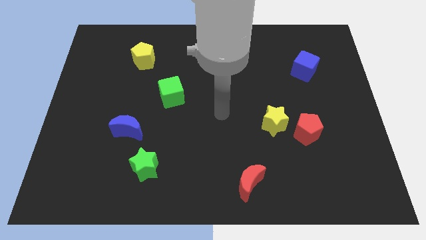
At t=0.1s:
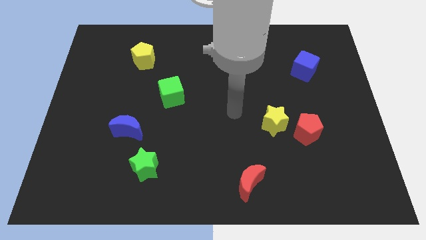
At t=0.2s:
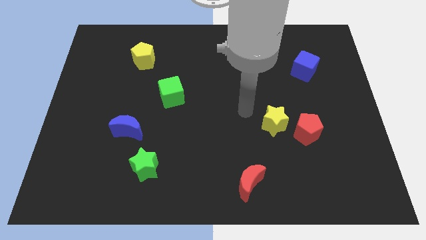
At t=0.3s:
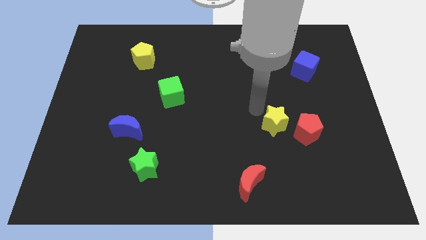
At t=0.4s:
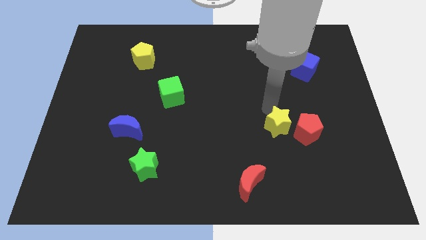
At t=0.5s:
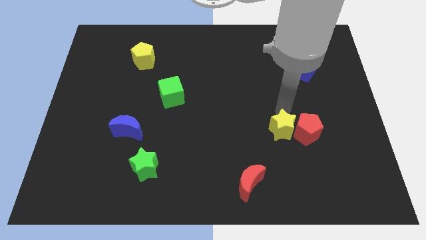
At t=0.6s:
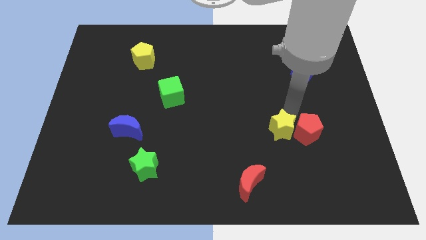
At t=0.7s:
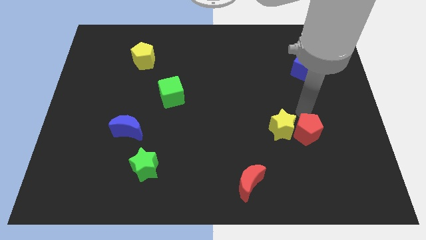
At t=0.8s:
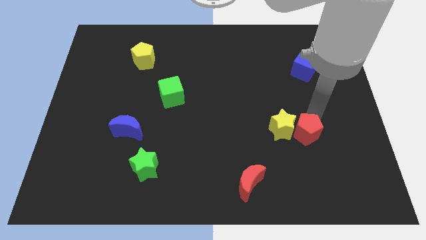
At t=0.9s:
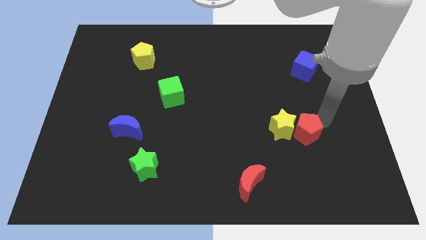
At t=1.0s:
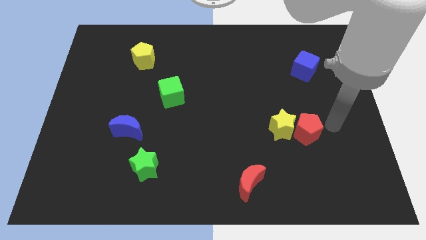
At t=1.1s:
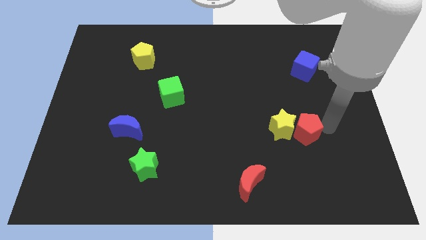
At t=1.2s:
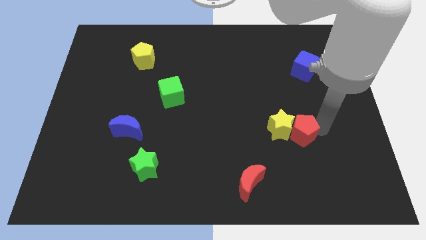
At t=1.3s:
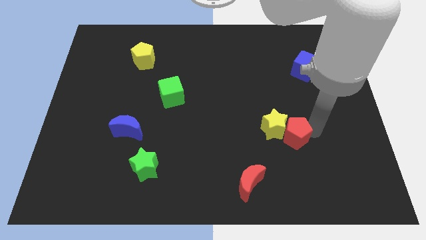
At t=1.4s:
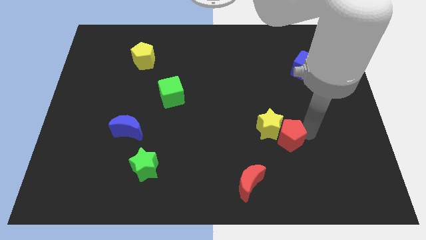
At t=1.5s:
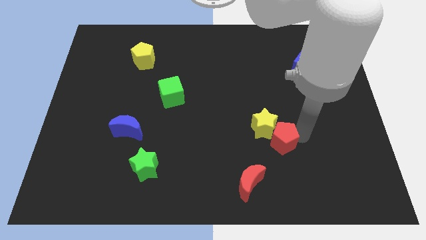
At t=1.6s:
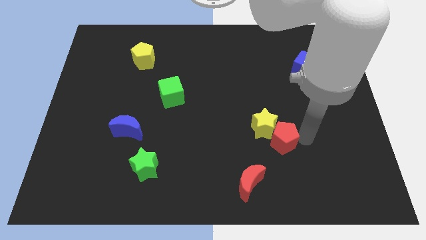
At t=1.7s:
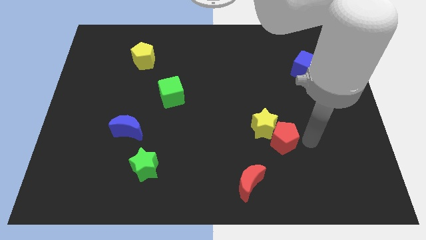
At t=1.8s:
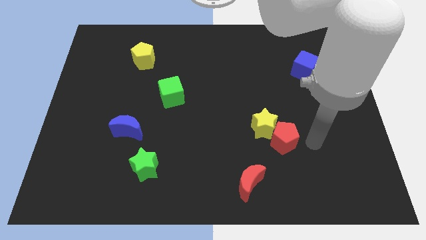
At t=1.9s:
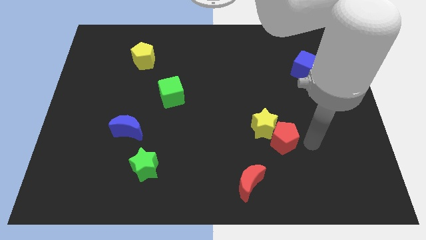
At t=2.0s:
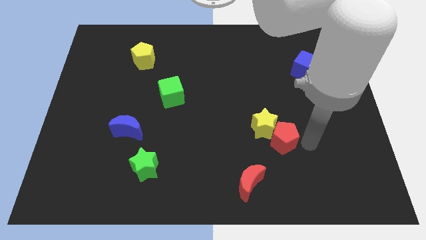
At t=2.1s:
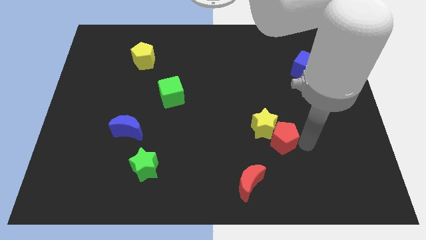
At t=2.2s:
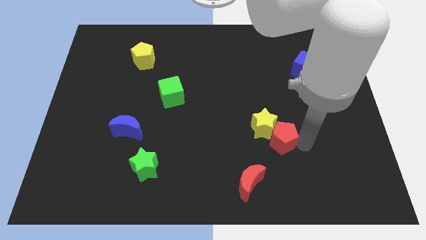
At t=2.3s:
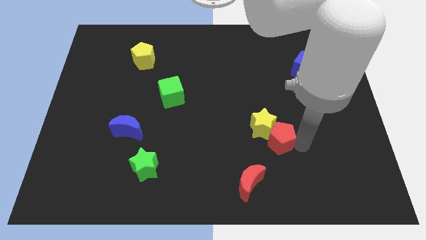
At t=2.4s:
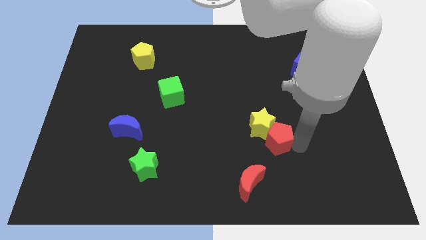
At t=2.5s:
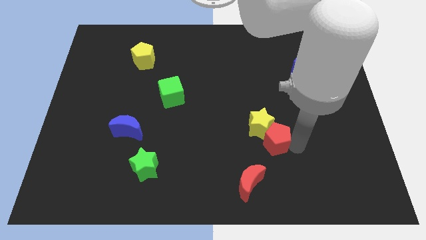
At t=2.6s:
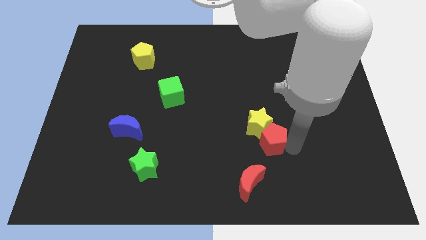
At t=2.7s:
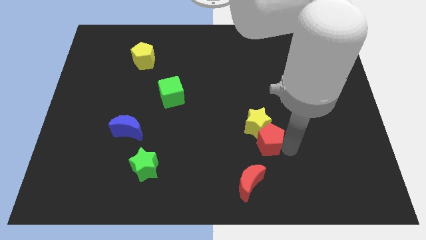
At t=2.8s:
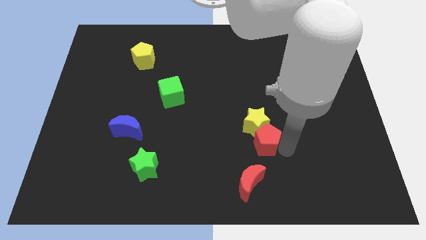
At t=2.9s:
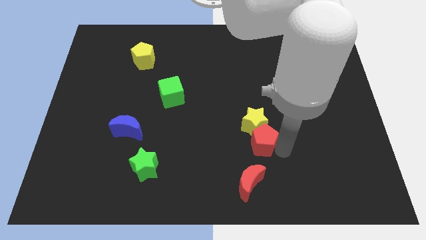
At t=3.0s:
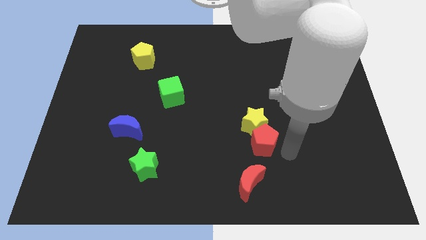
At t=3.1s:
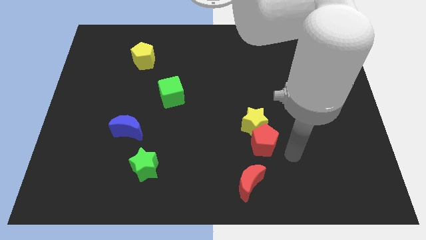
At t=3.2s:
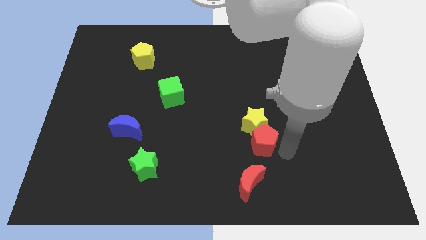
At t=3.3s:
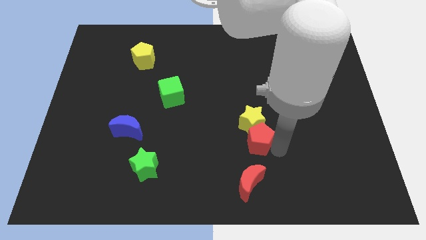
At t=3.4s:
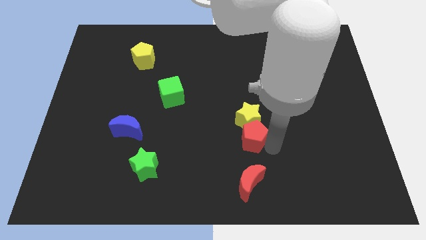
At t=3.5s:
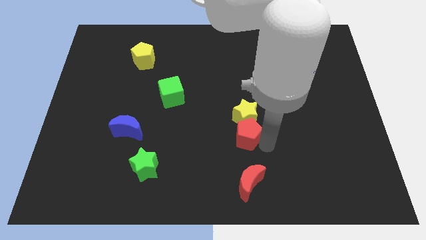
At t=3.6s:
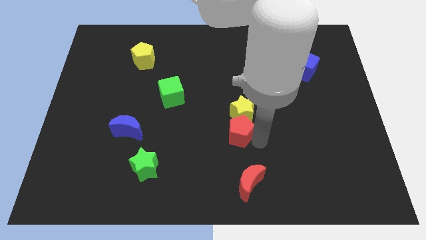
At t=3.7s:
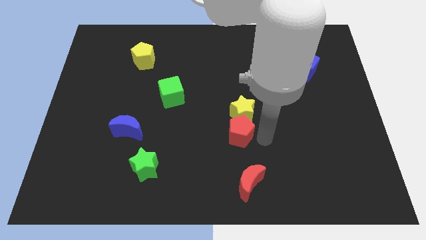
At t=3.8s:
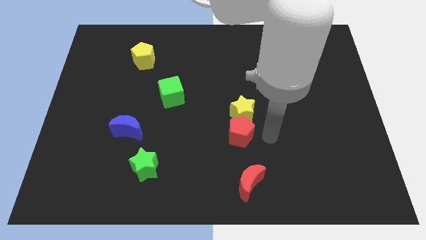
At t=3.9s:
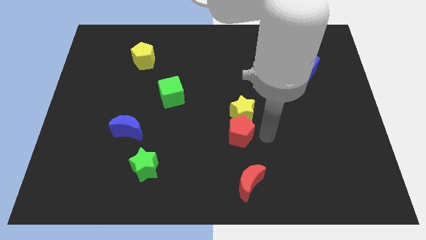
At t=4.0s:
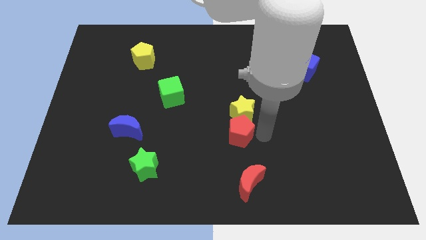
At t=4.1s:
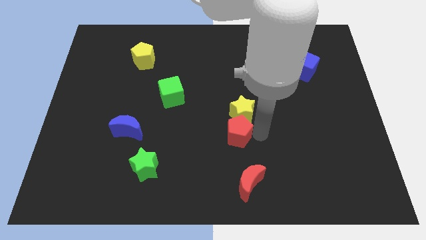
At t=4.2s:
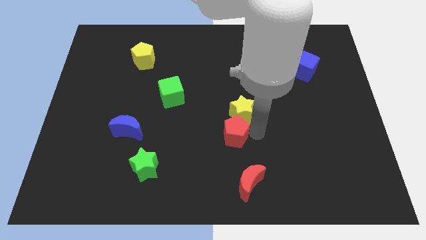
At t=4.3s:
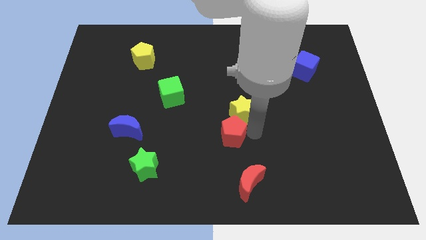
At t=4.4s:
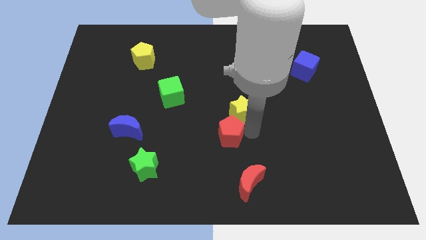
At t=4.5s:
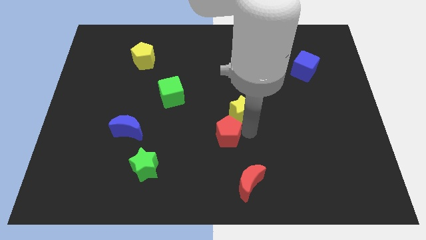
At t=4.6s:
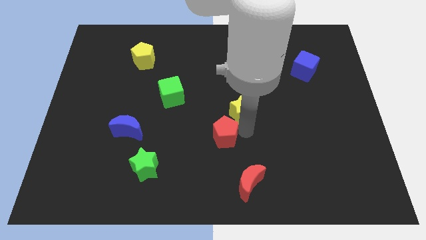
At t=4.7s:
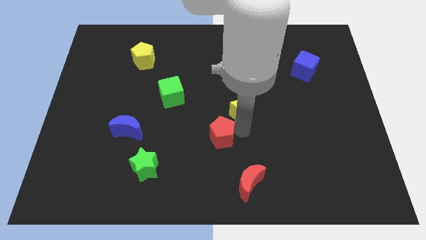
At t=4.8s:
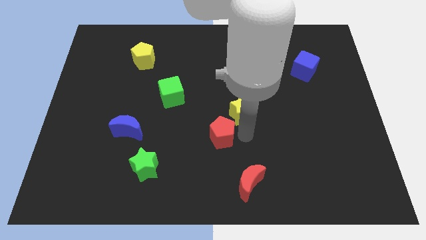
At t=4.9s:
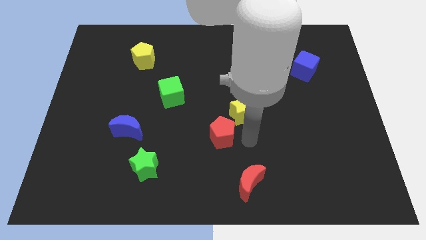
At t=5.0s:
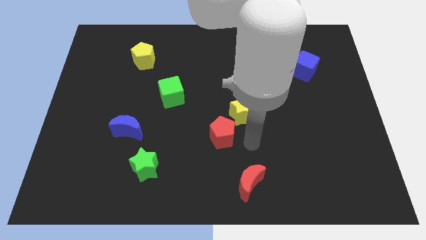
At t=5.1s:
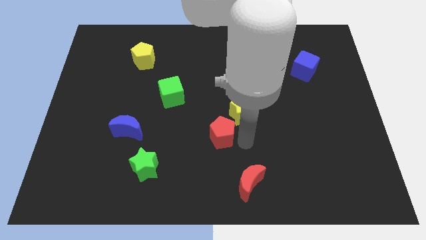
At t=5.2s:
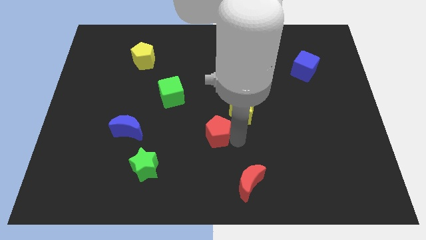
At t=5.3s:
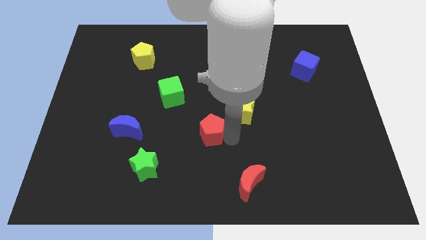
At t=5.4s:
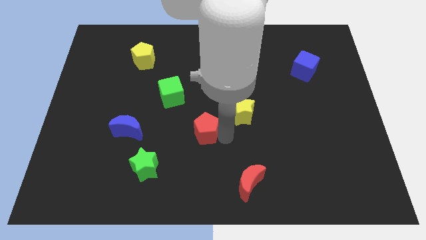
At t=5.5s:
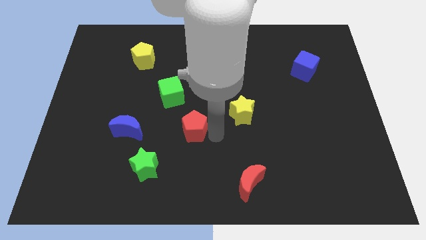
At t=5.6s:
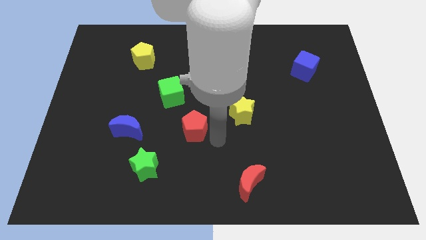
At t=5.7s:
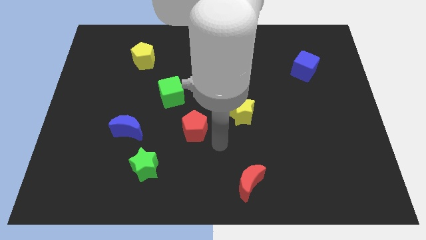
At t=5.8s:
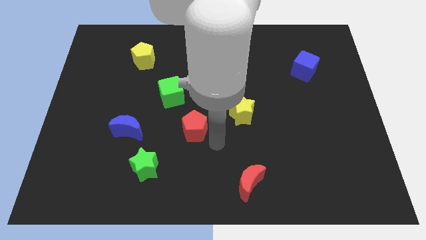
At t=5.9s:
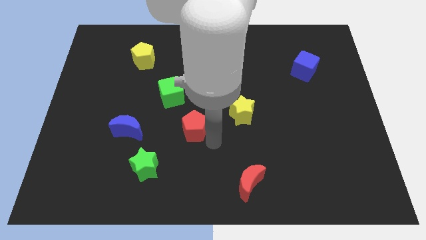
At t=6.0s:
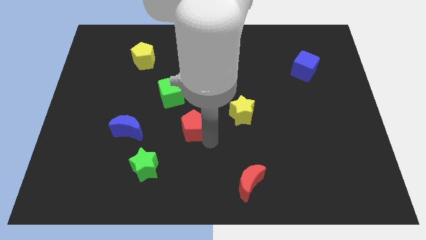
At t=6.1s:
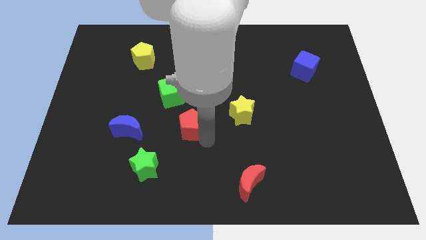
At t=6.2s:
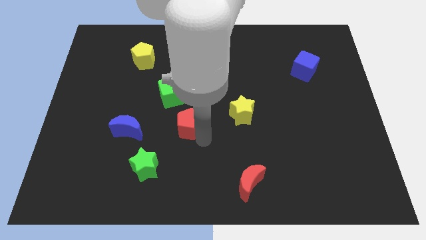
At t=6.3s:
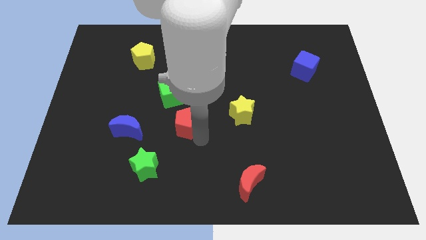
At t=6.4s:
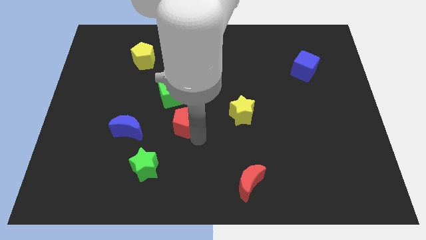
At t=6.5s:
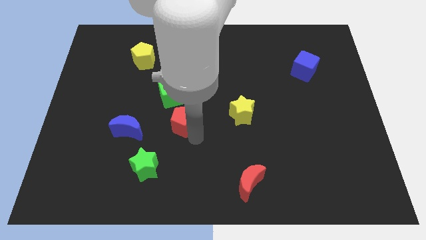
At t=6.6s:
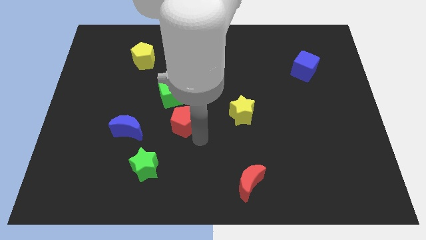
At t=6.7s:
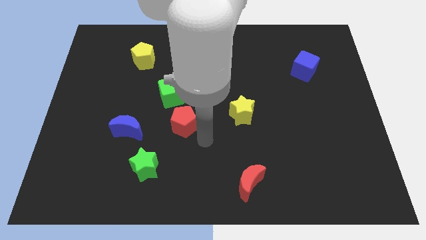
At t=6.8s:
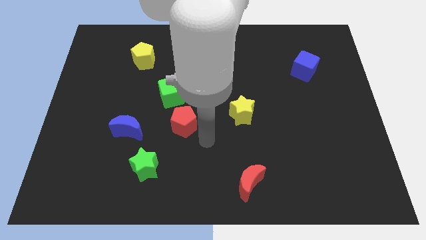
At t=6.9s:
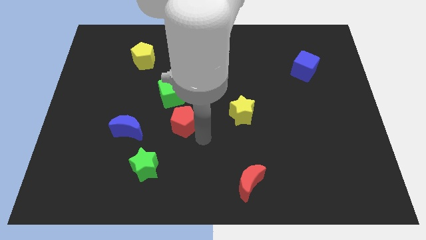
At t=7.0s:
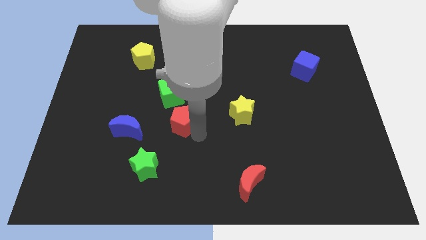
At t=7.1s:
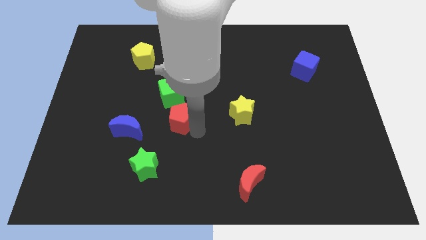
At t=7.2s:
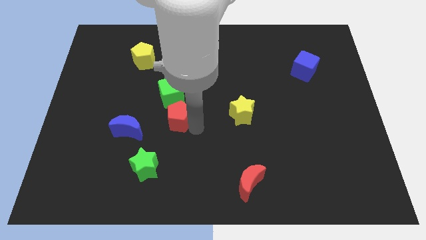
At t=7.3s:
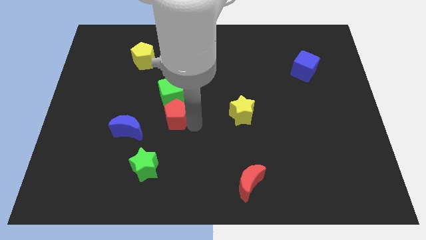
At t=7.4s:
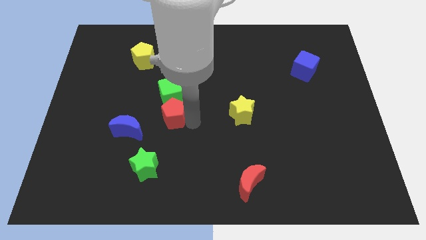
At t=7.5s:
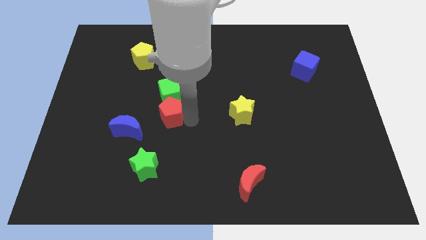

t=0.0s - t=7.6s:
put the red pentagon to the bottom left side of the green cube
